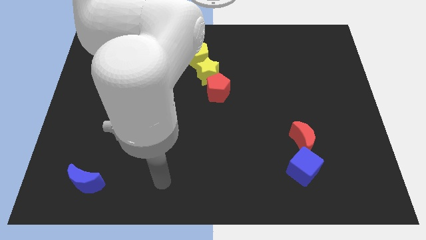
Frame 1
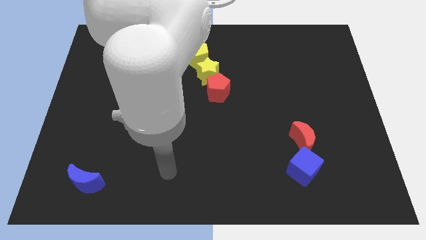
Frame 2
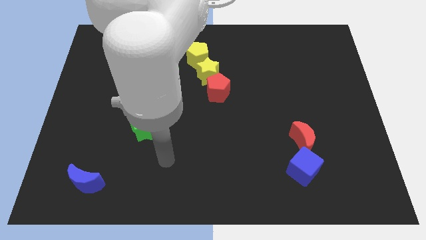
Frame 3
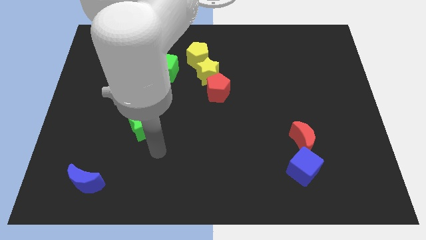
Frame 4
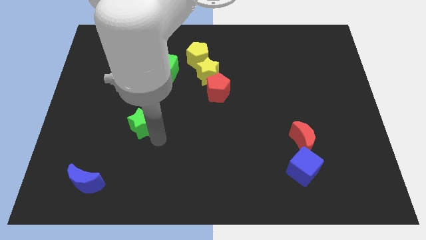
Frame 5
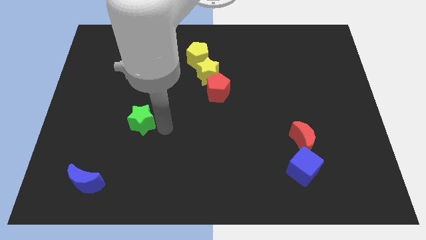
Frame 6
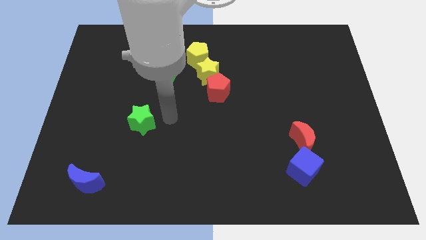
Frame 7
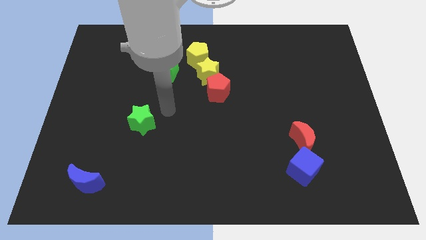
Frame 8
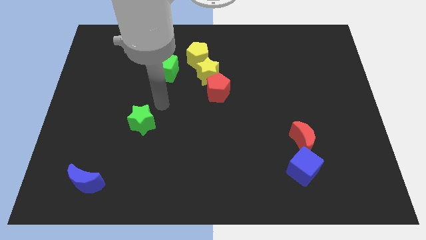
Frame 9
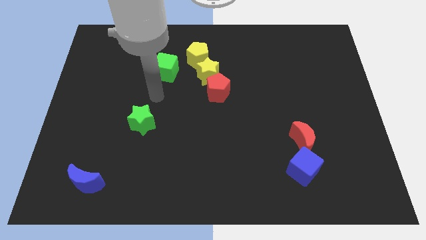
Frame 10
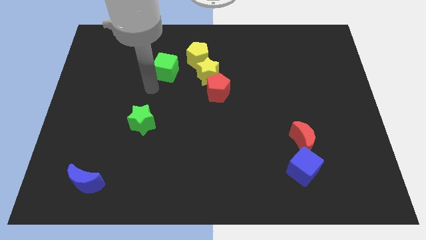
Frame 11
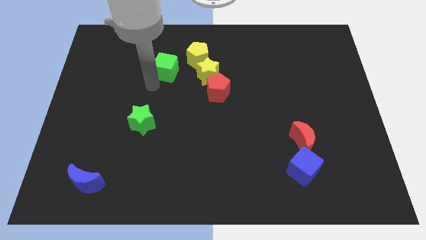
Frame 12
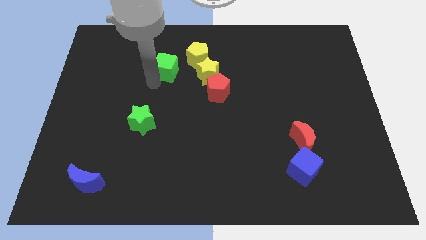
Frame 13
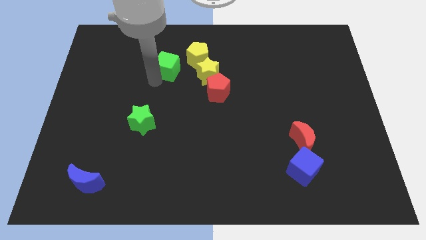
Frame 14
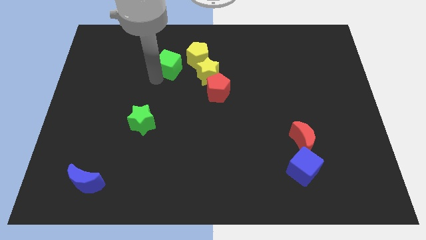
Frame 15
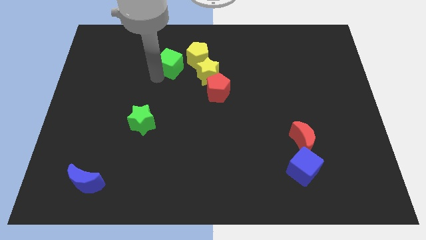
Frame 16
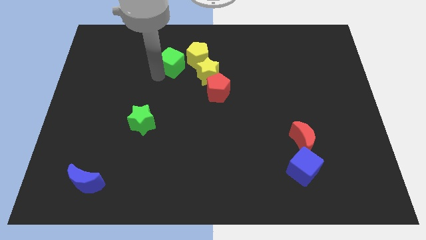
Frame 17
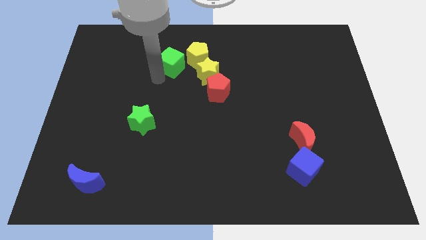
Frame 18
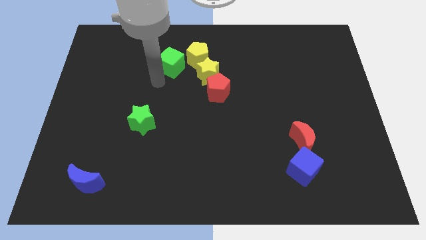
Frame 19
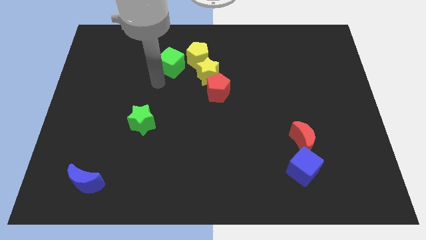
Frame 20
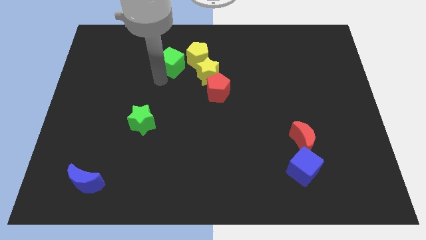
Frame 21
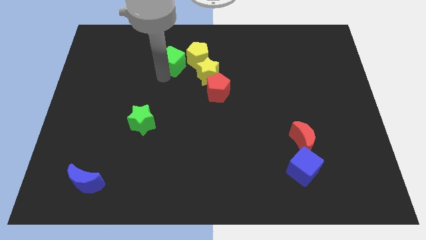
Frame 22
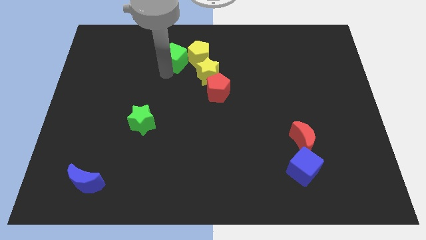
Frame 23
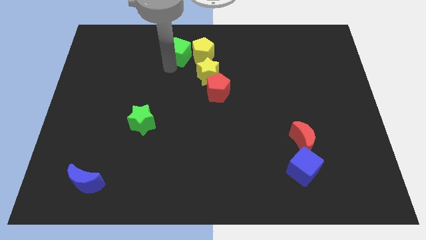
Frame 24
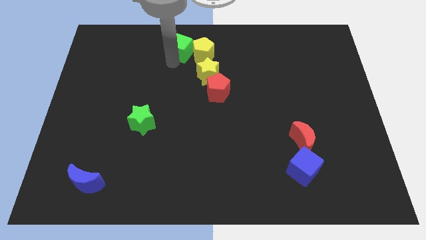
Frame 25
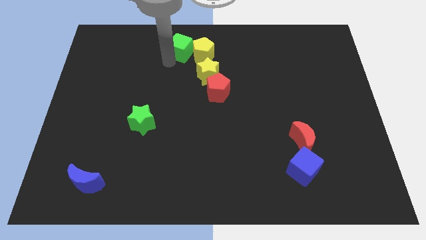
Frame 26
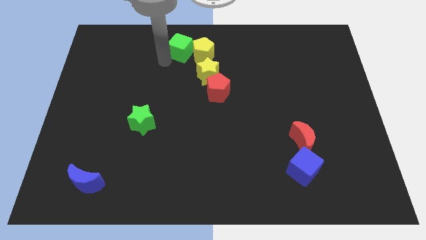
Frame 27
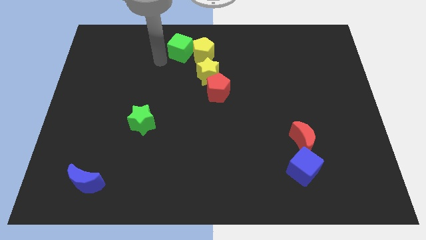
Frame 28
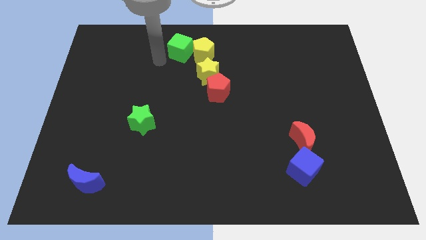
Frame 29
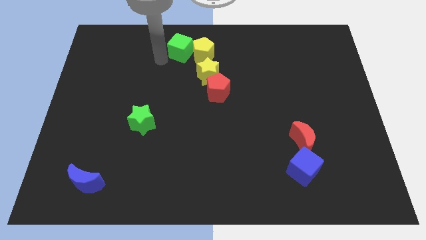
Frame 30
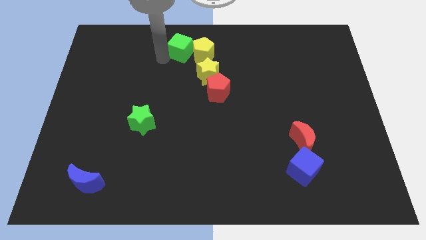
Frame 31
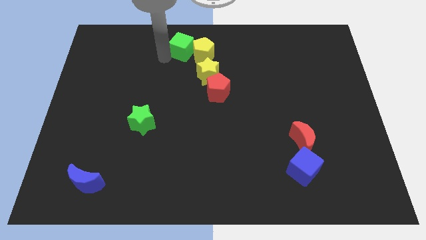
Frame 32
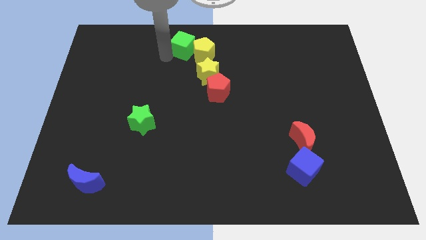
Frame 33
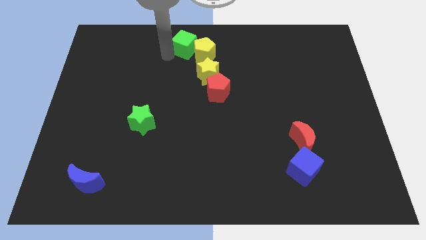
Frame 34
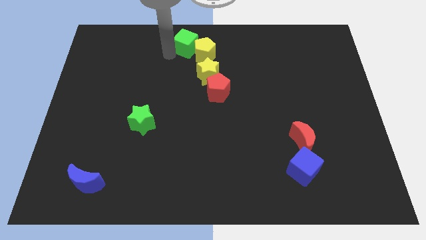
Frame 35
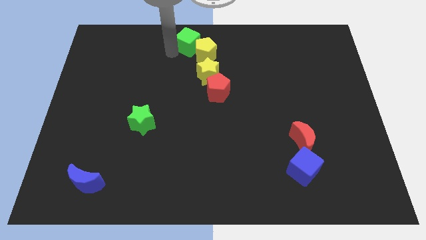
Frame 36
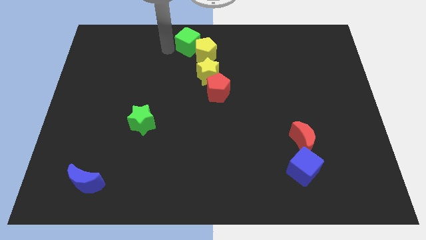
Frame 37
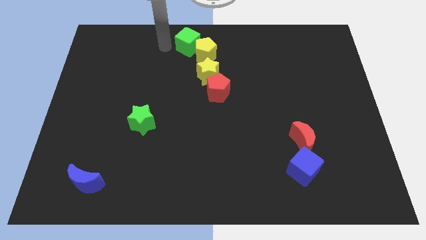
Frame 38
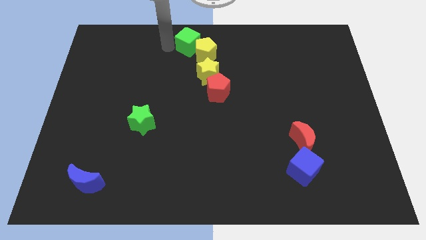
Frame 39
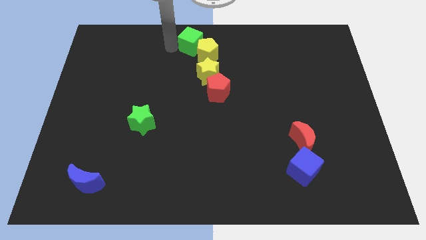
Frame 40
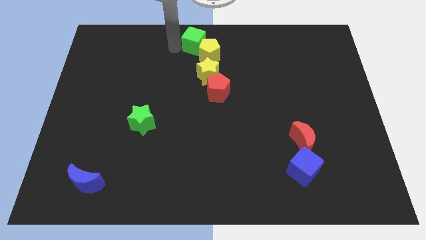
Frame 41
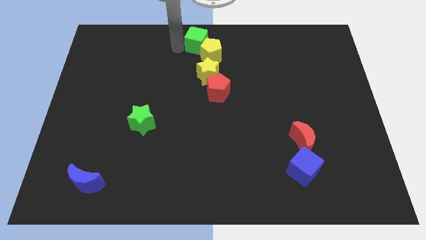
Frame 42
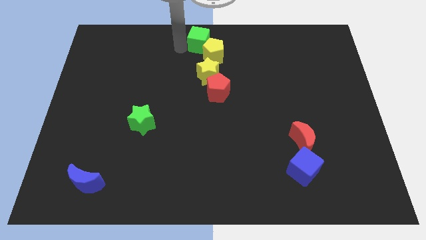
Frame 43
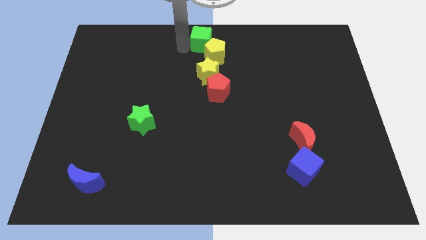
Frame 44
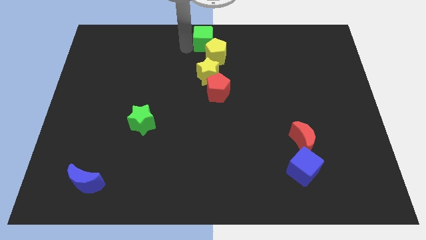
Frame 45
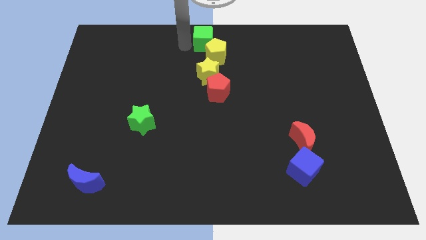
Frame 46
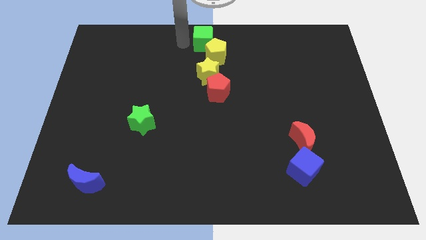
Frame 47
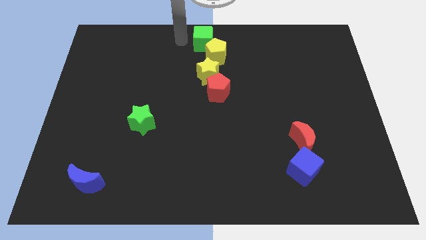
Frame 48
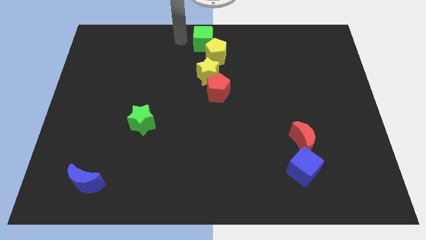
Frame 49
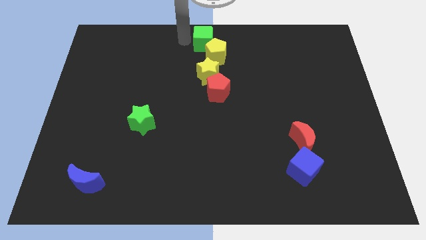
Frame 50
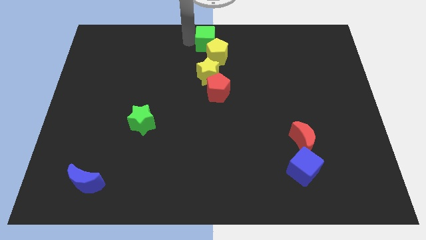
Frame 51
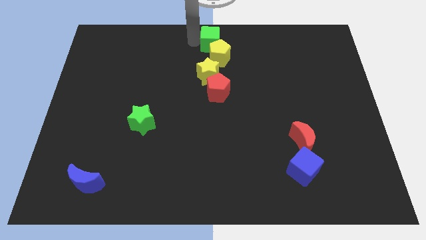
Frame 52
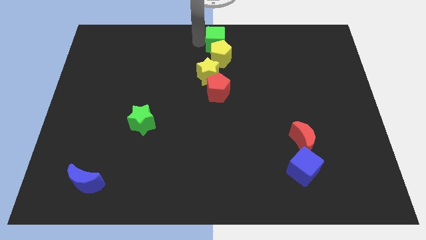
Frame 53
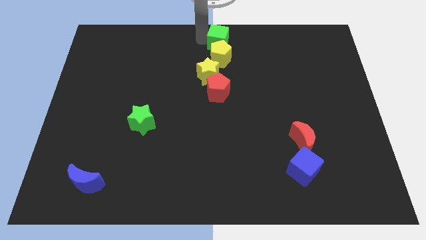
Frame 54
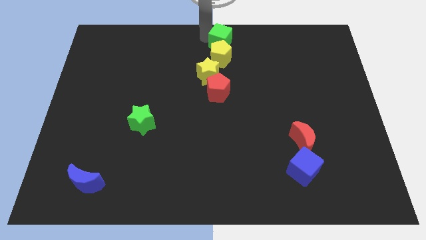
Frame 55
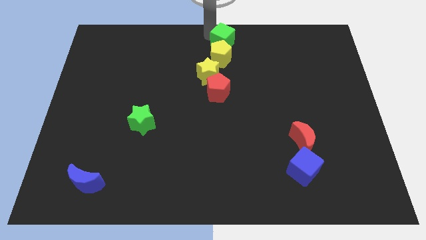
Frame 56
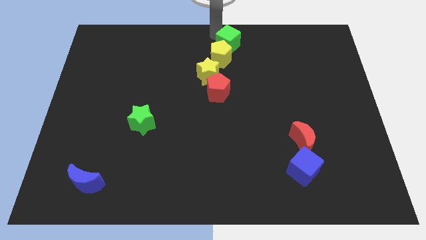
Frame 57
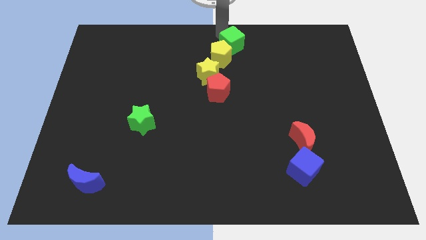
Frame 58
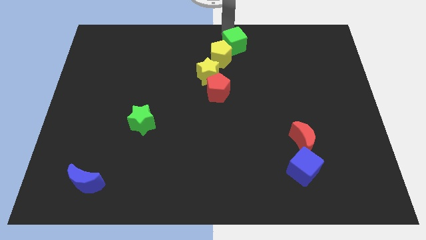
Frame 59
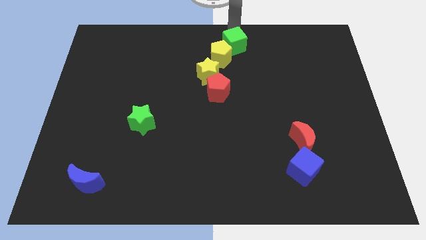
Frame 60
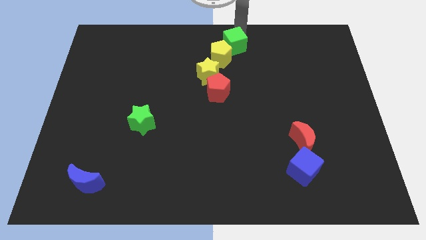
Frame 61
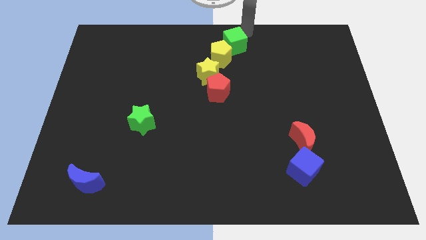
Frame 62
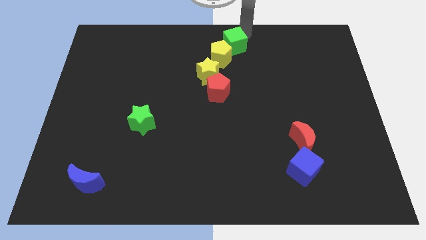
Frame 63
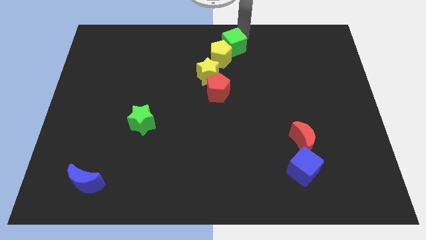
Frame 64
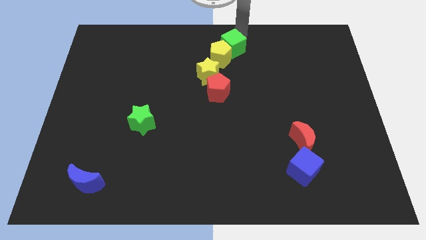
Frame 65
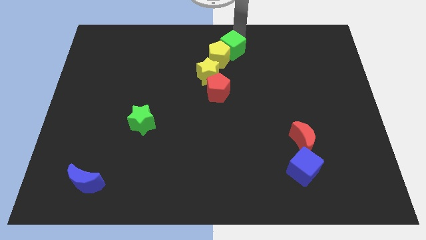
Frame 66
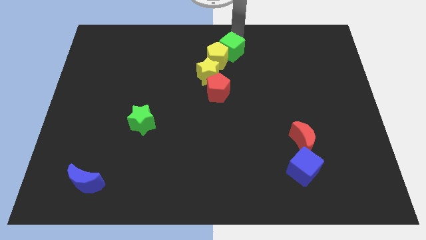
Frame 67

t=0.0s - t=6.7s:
push the green cube to the top of the red pentagon

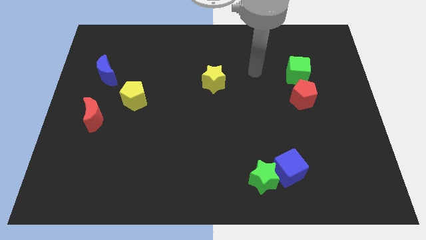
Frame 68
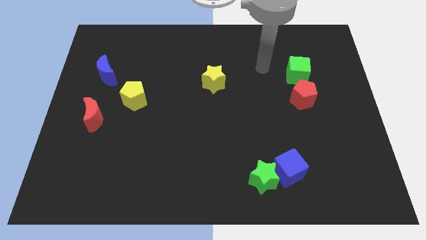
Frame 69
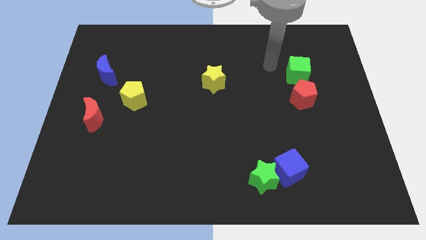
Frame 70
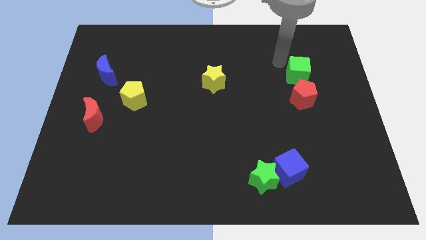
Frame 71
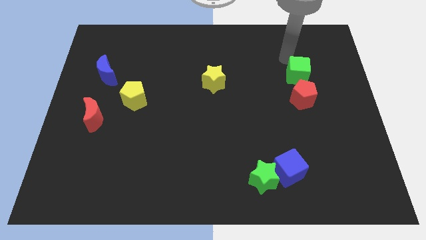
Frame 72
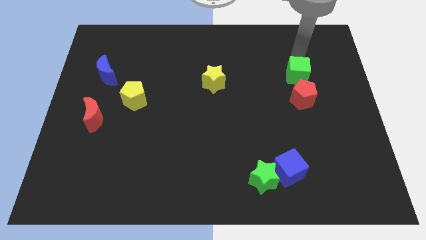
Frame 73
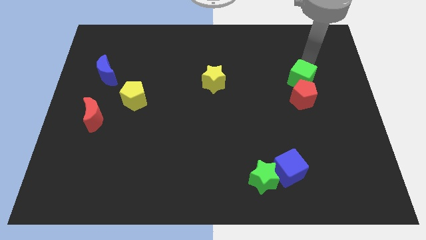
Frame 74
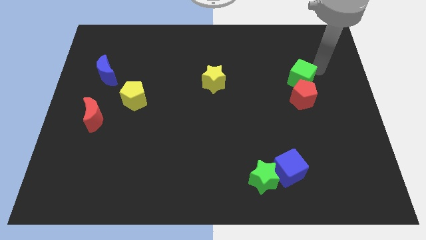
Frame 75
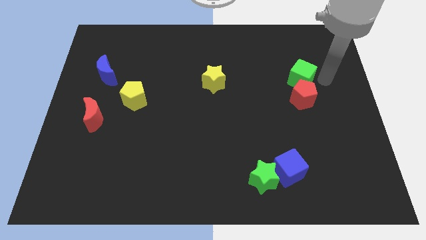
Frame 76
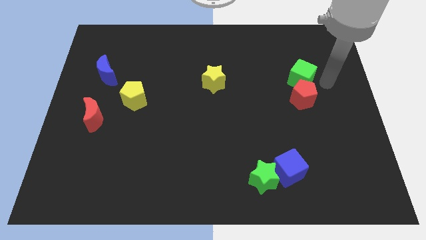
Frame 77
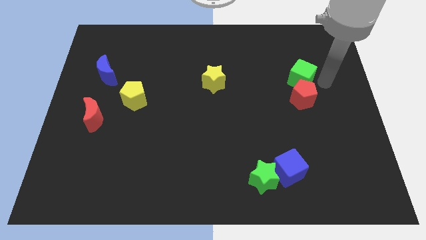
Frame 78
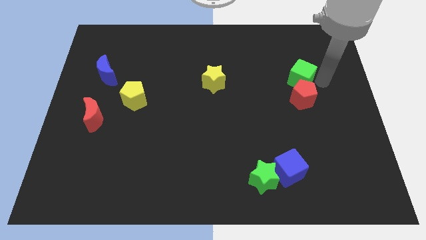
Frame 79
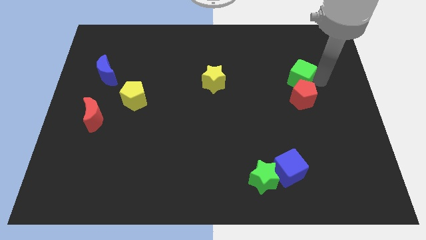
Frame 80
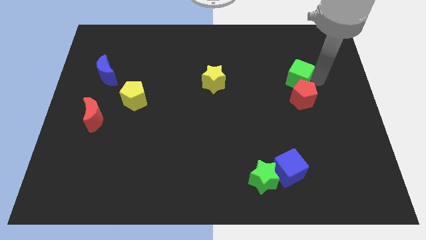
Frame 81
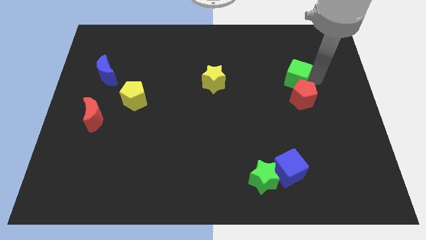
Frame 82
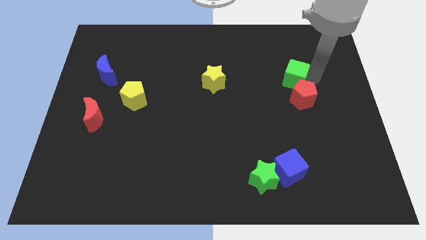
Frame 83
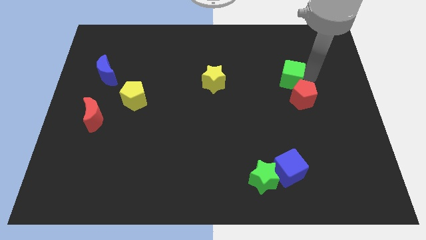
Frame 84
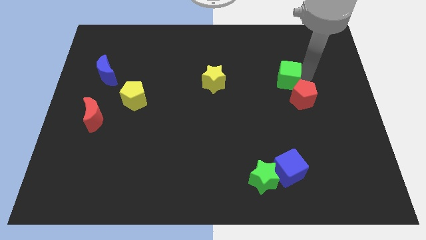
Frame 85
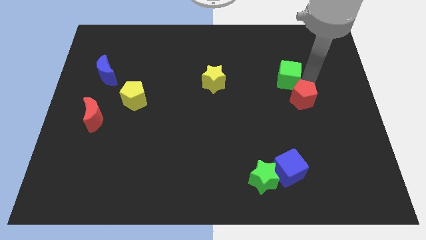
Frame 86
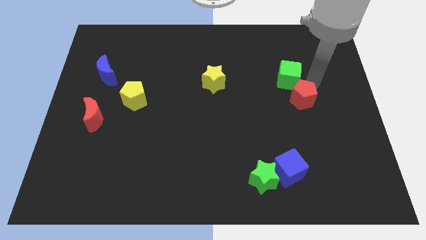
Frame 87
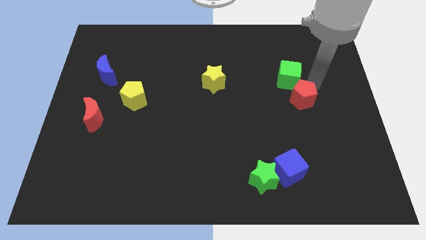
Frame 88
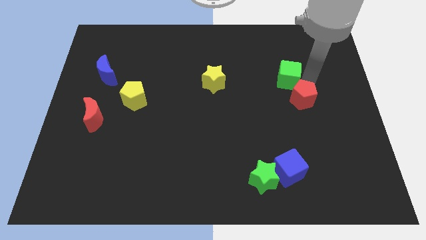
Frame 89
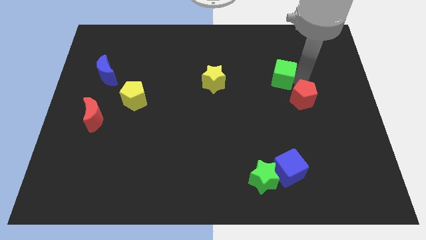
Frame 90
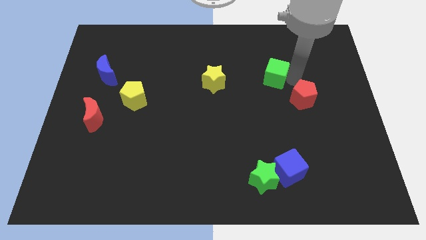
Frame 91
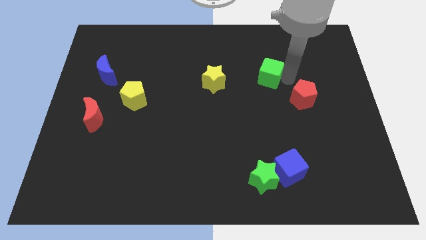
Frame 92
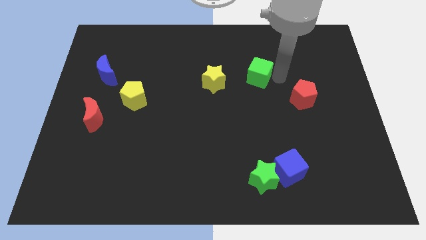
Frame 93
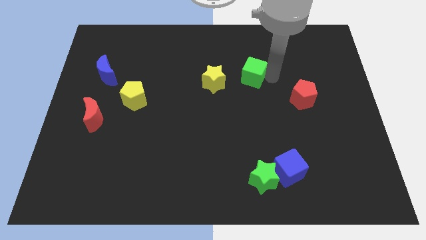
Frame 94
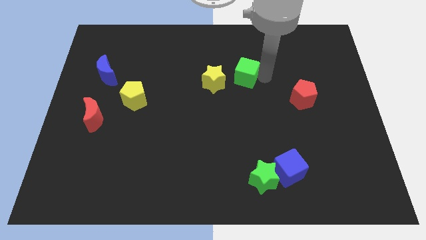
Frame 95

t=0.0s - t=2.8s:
put the green cube to the top right of the yellow star
